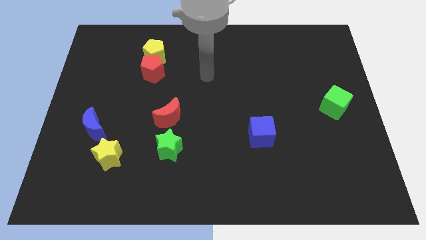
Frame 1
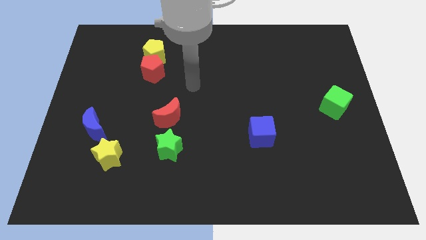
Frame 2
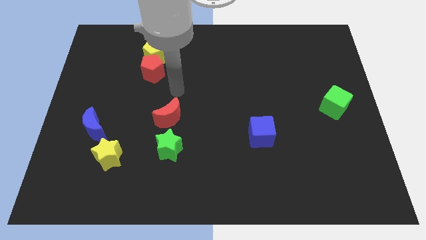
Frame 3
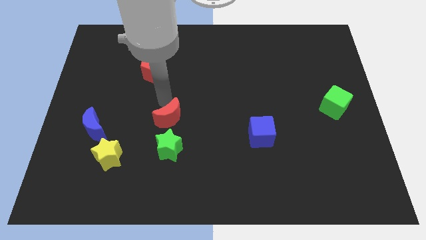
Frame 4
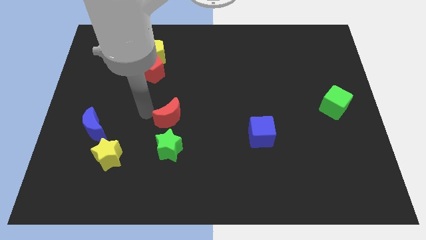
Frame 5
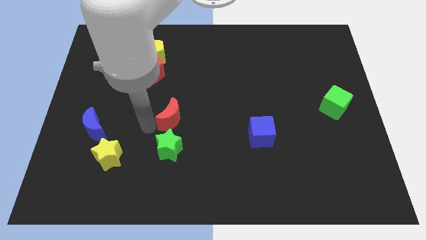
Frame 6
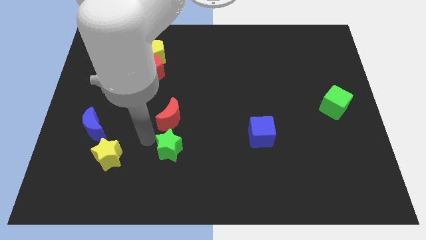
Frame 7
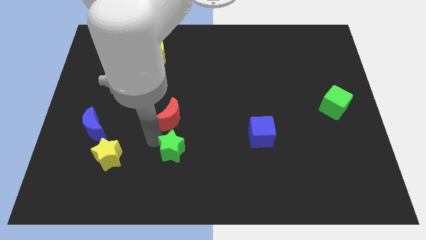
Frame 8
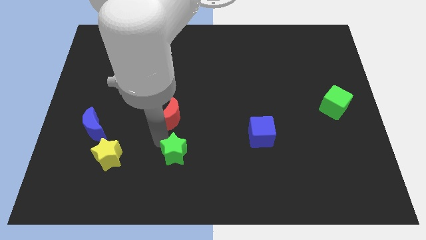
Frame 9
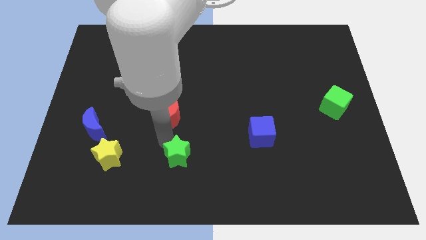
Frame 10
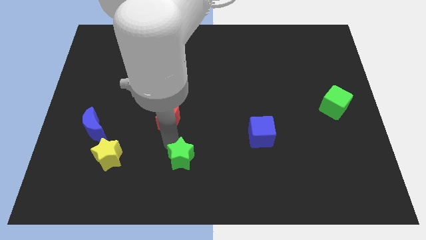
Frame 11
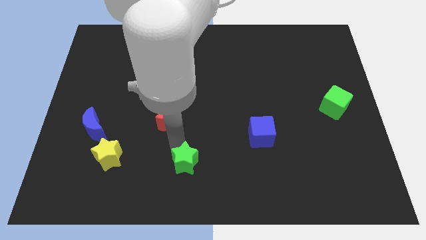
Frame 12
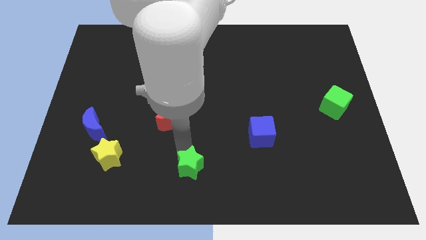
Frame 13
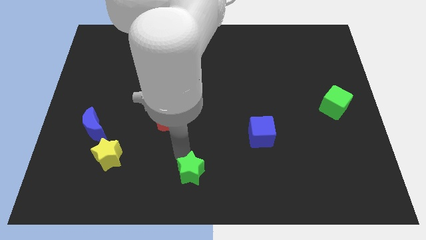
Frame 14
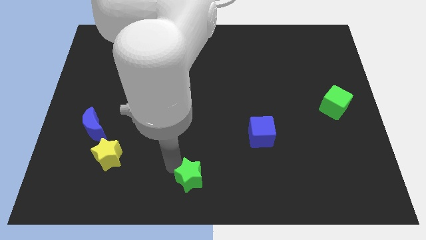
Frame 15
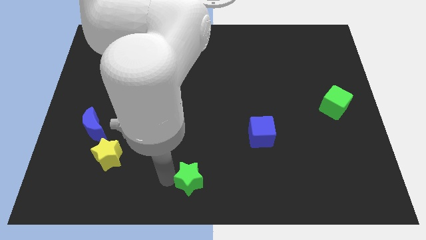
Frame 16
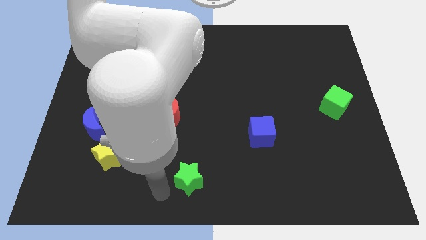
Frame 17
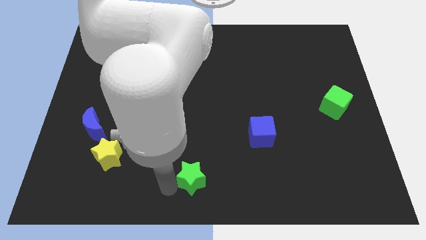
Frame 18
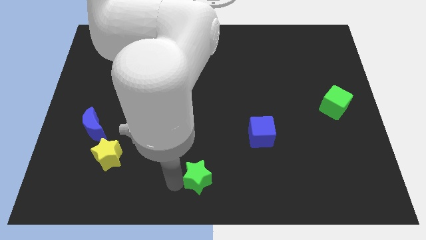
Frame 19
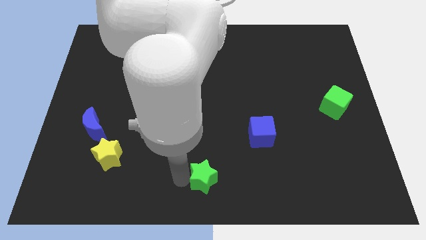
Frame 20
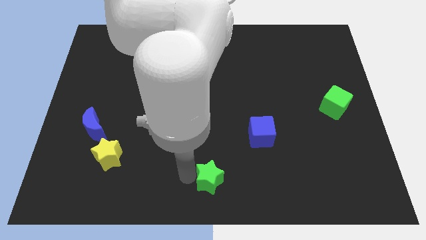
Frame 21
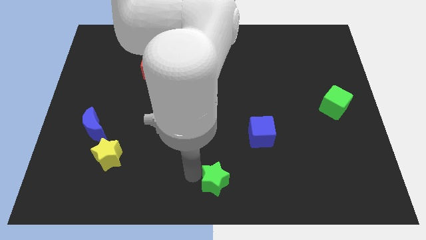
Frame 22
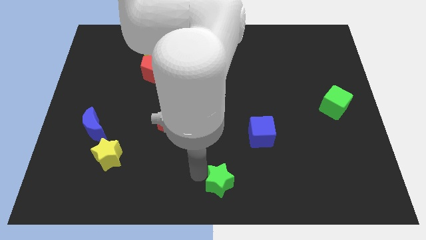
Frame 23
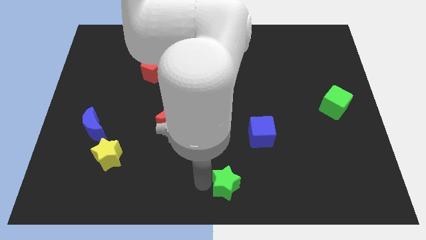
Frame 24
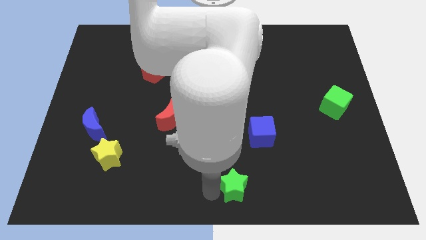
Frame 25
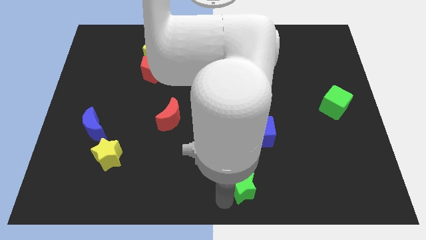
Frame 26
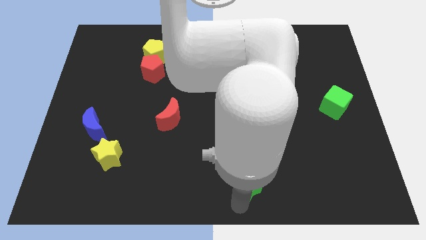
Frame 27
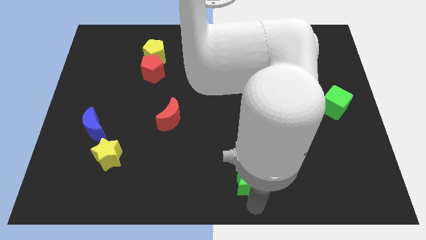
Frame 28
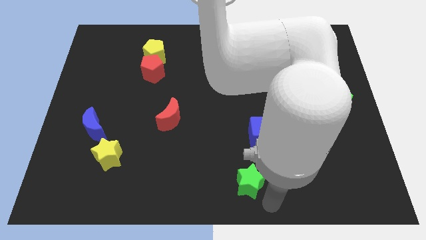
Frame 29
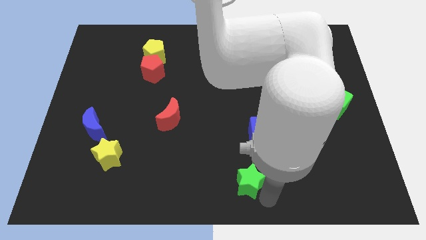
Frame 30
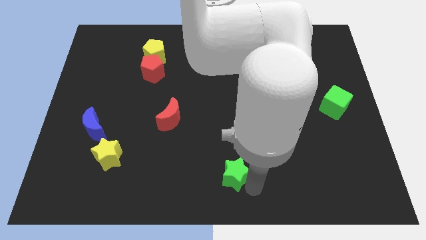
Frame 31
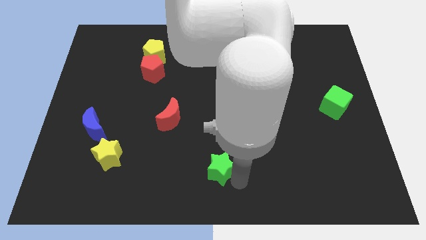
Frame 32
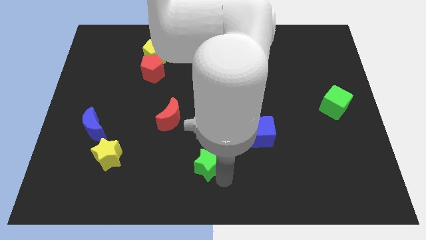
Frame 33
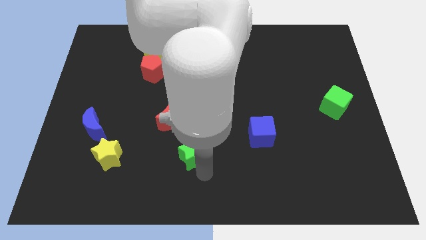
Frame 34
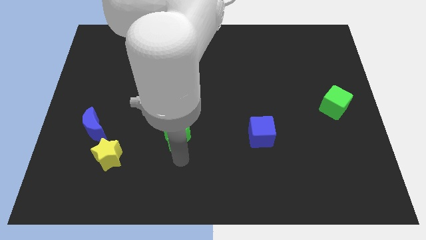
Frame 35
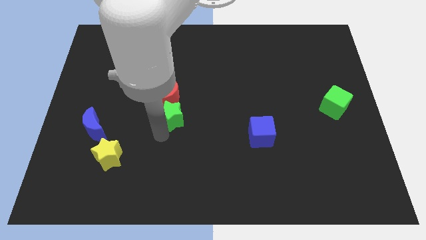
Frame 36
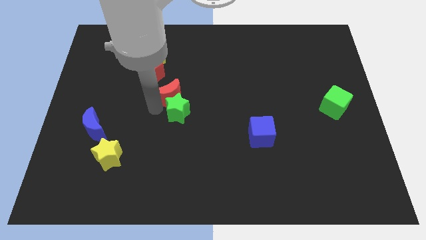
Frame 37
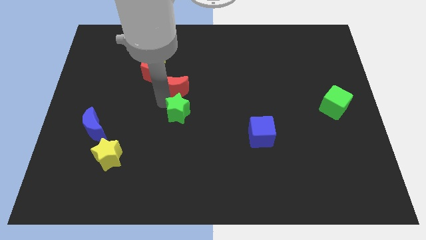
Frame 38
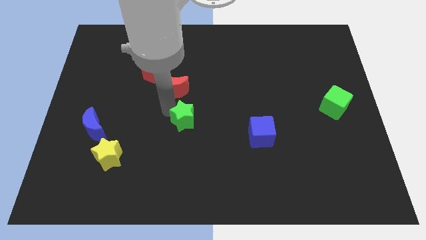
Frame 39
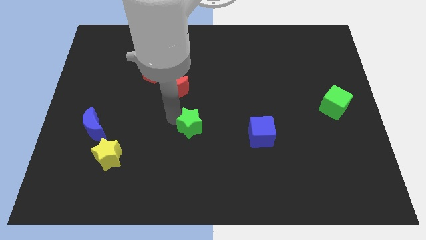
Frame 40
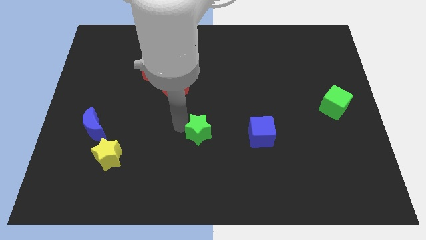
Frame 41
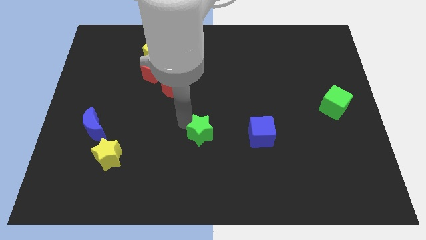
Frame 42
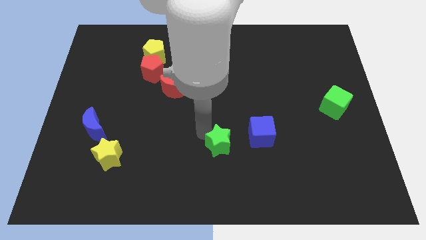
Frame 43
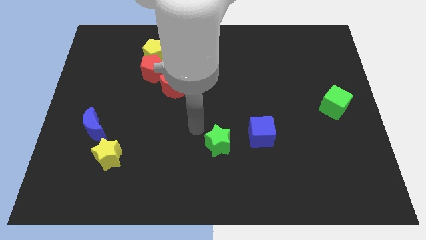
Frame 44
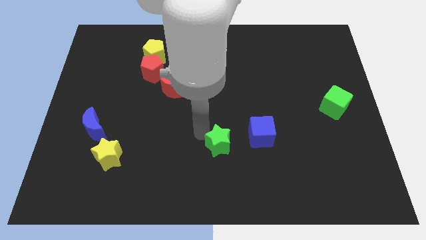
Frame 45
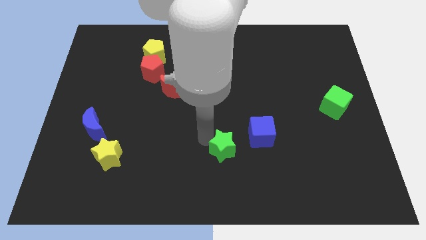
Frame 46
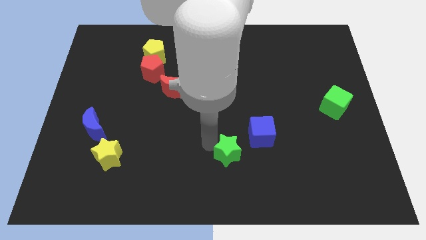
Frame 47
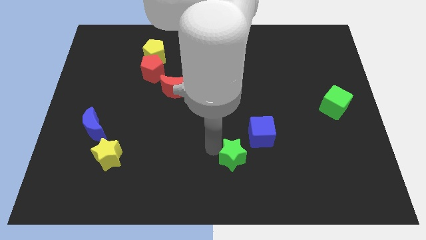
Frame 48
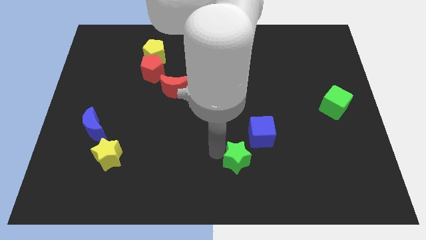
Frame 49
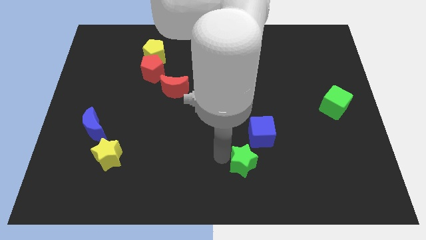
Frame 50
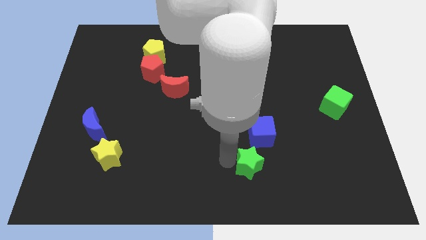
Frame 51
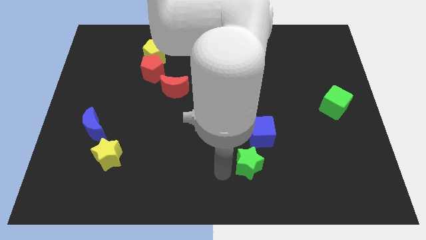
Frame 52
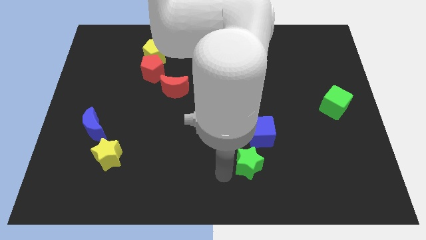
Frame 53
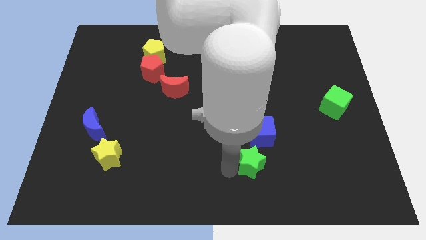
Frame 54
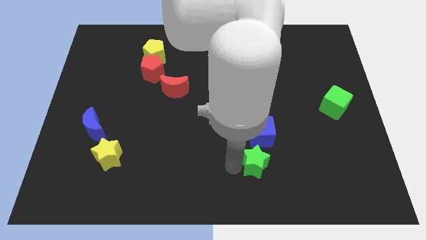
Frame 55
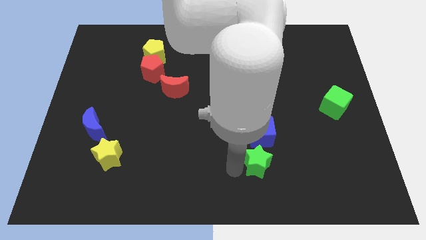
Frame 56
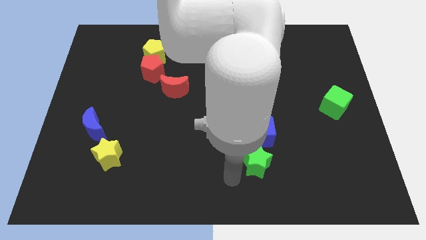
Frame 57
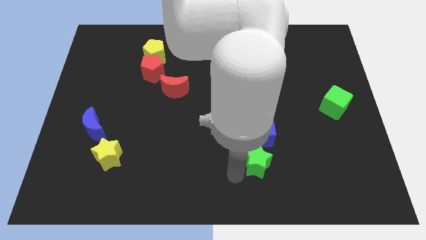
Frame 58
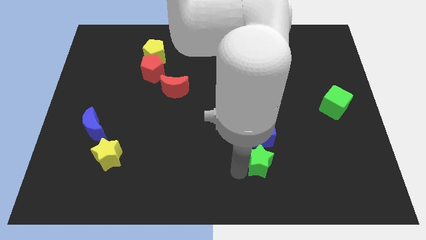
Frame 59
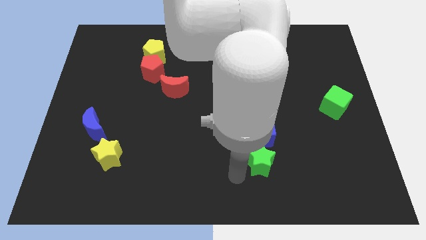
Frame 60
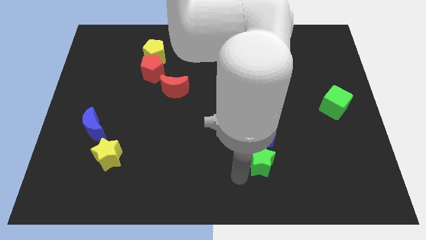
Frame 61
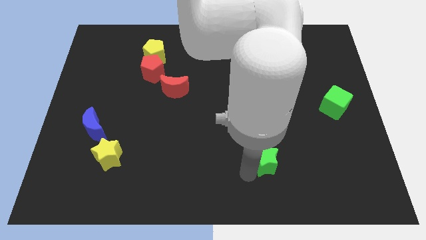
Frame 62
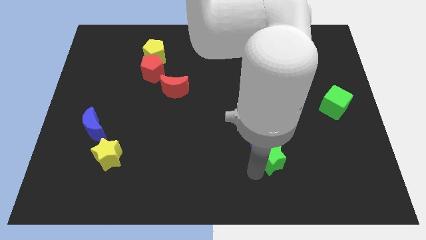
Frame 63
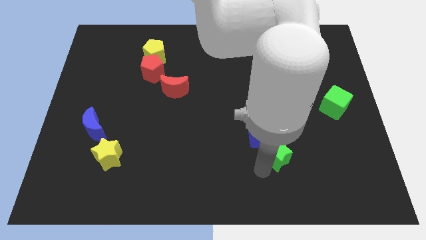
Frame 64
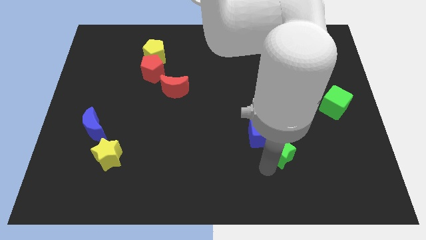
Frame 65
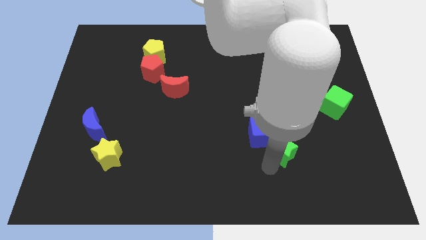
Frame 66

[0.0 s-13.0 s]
put the green star right of the blue cube

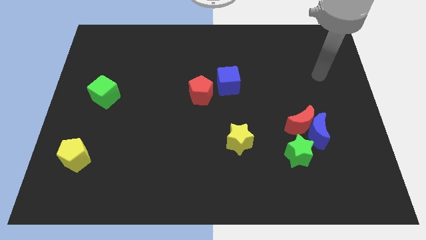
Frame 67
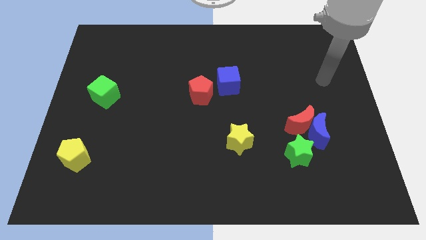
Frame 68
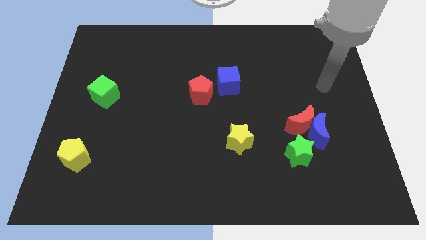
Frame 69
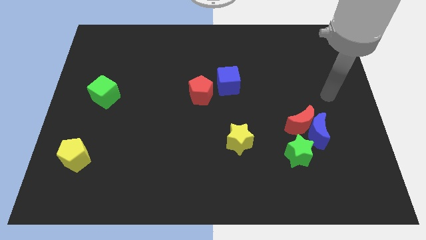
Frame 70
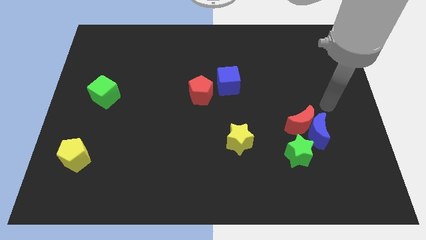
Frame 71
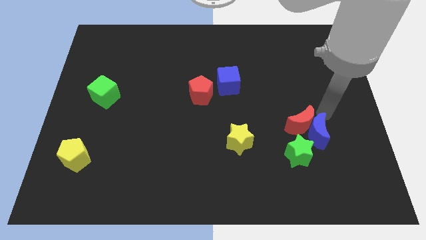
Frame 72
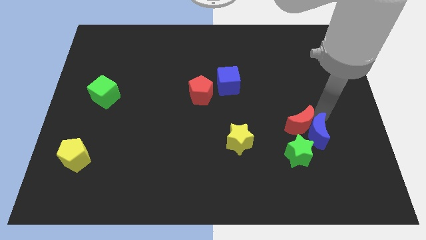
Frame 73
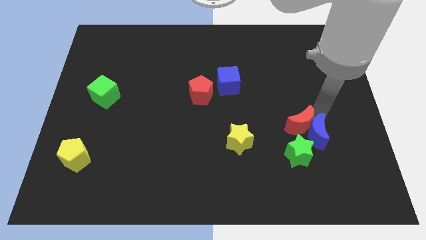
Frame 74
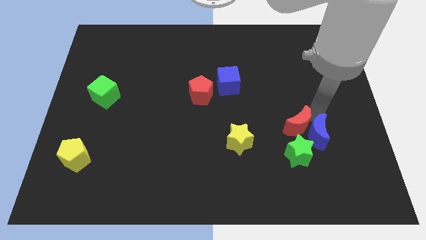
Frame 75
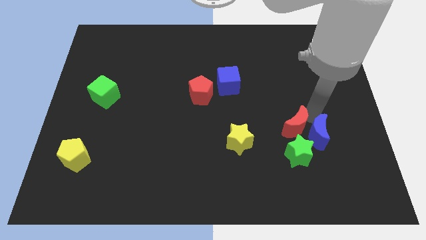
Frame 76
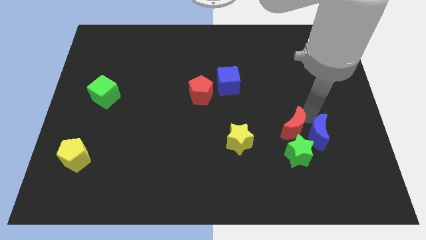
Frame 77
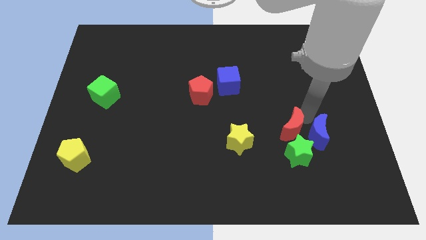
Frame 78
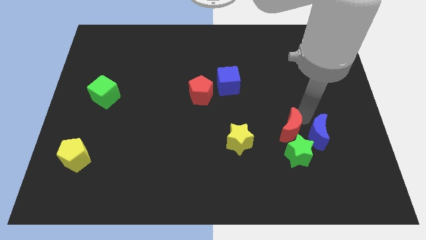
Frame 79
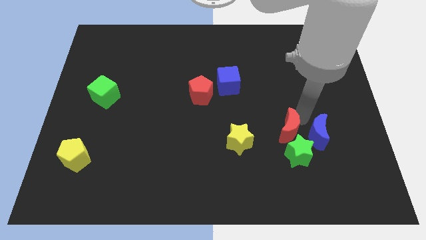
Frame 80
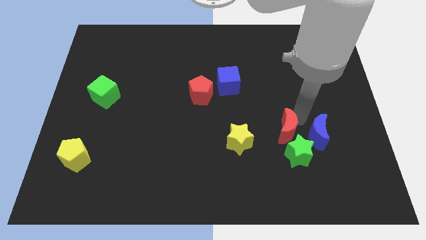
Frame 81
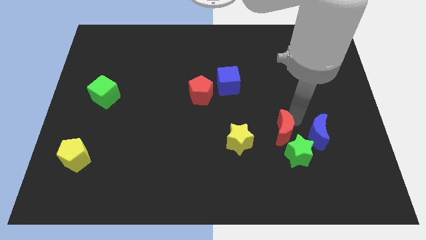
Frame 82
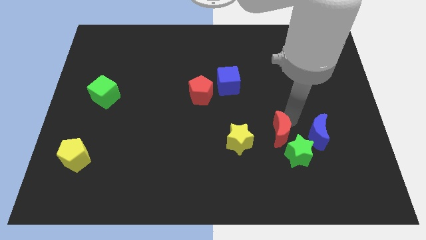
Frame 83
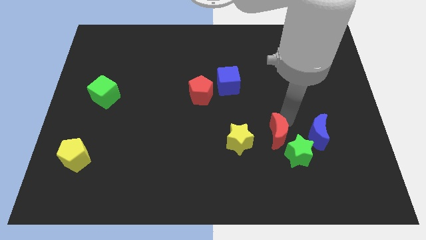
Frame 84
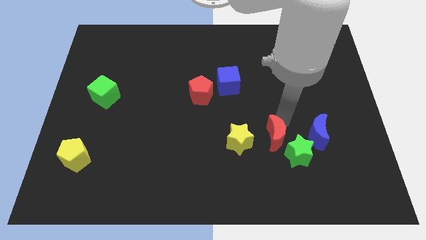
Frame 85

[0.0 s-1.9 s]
put the red moon to the left of the green star
